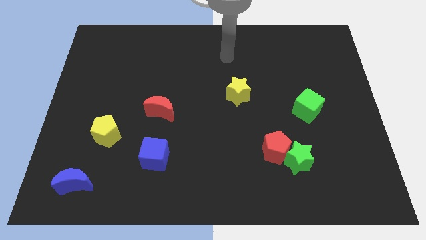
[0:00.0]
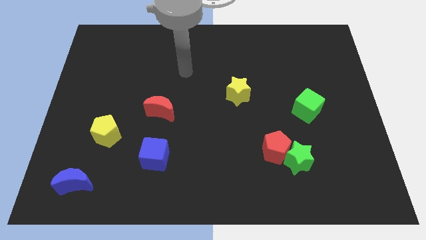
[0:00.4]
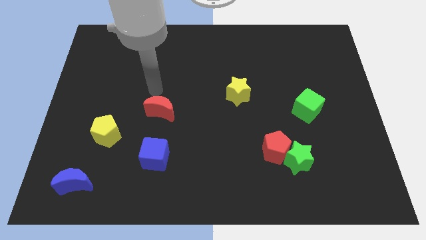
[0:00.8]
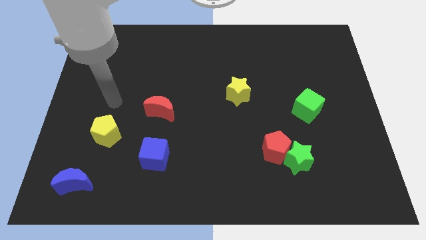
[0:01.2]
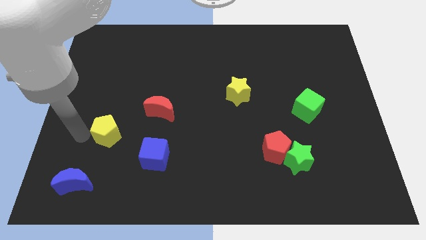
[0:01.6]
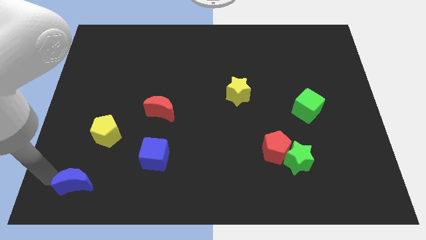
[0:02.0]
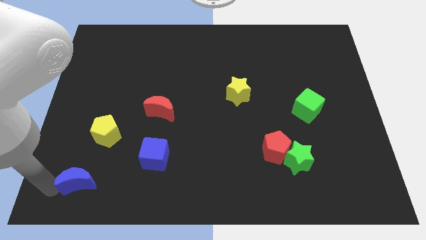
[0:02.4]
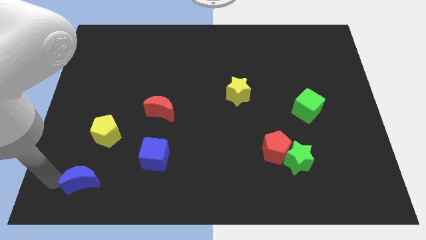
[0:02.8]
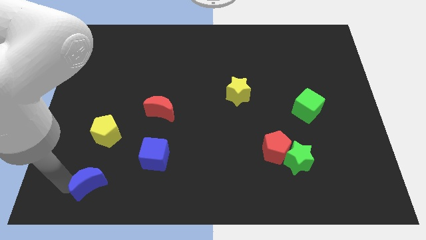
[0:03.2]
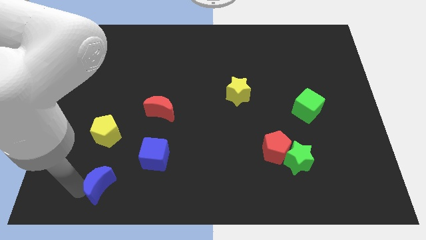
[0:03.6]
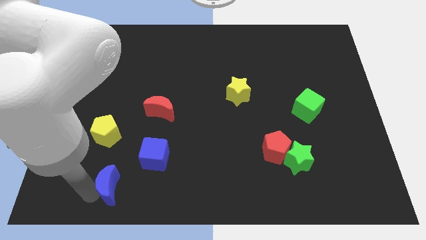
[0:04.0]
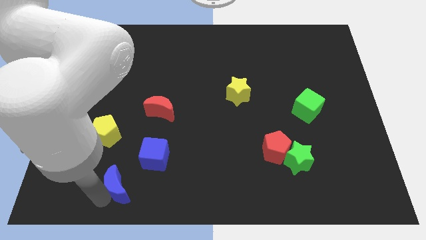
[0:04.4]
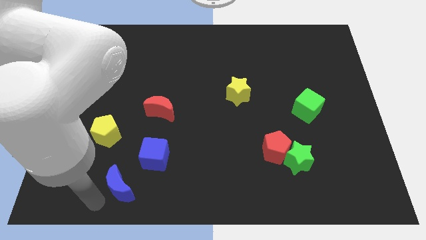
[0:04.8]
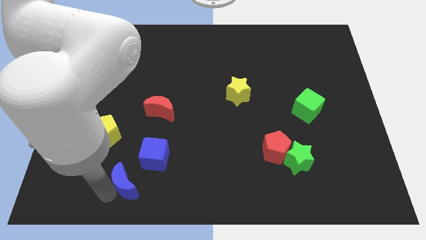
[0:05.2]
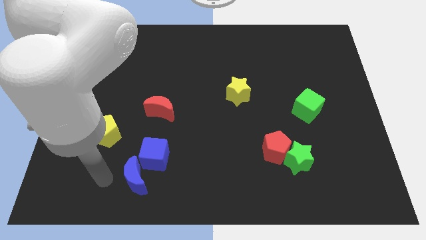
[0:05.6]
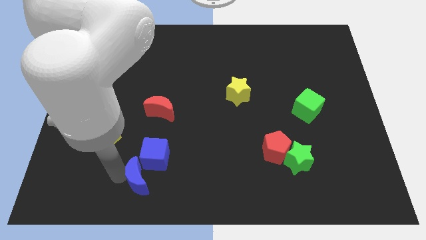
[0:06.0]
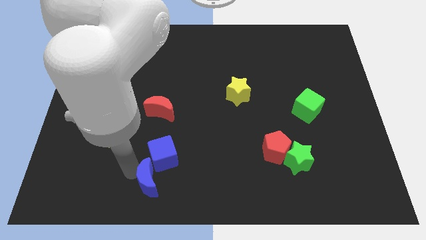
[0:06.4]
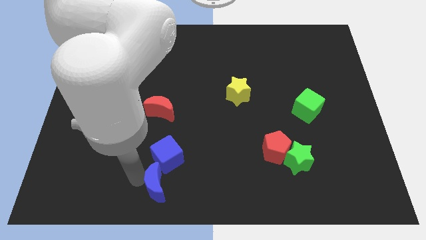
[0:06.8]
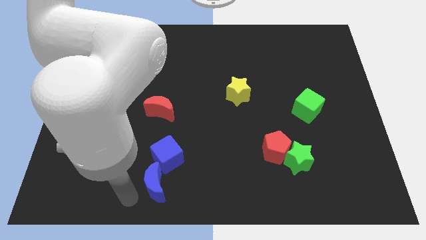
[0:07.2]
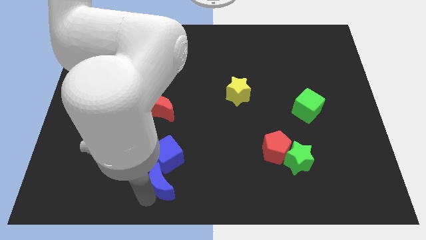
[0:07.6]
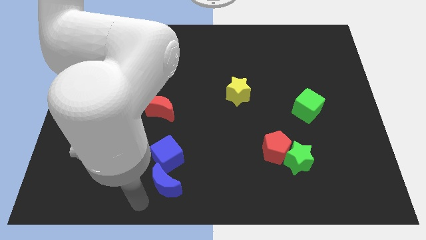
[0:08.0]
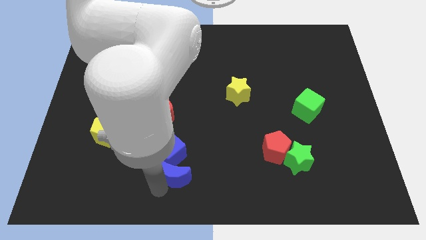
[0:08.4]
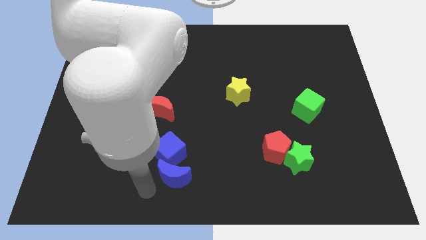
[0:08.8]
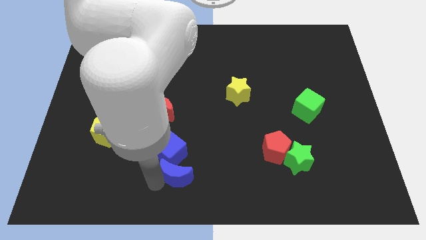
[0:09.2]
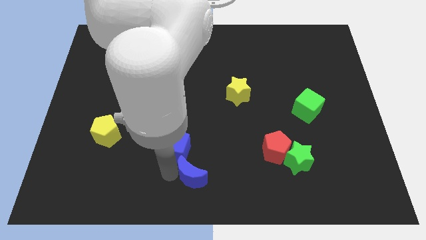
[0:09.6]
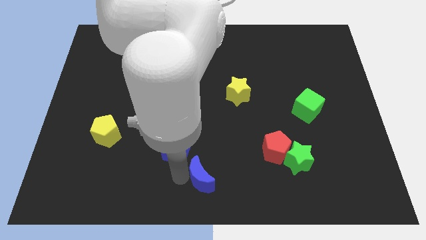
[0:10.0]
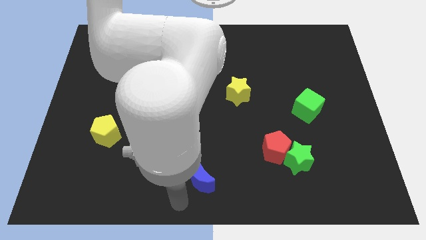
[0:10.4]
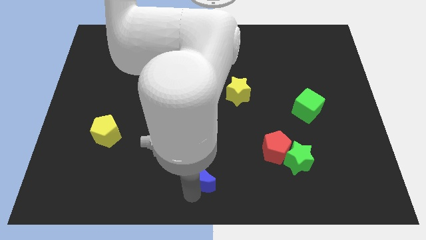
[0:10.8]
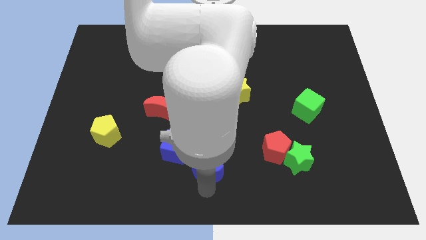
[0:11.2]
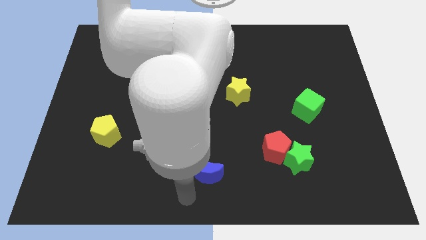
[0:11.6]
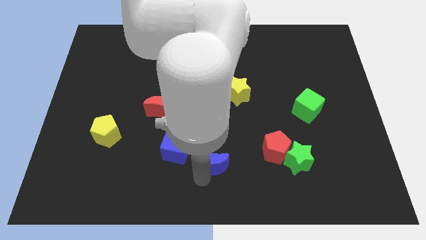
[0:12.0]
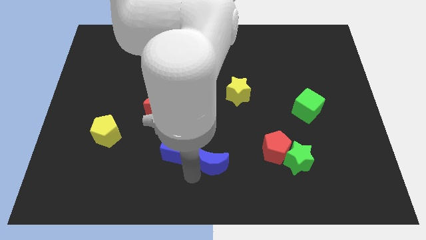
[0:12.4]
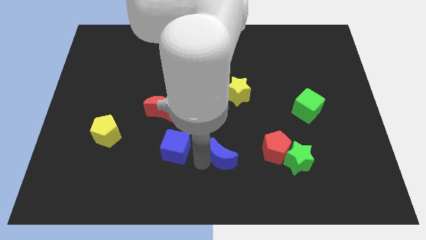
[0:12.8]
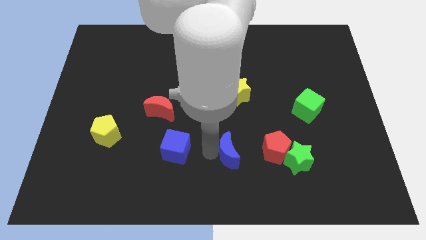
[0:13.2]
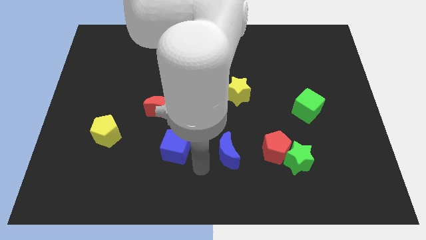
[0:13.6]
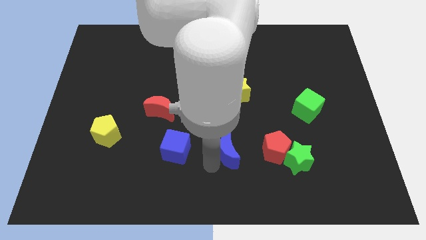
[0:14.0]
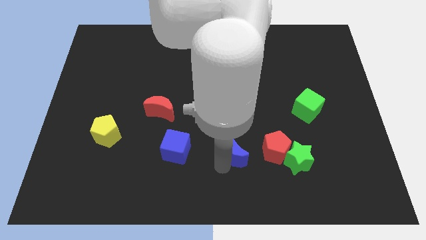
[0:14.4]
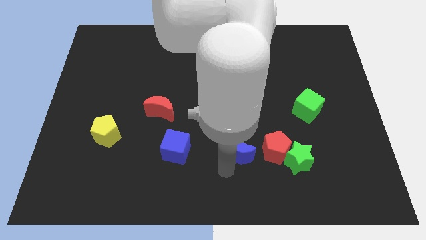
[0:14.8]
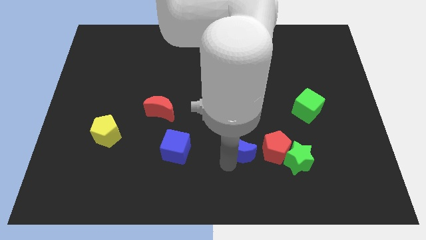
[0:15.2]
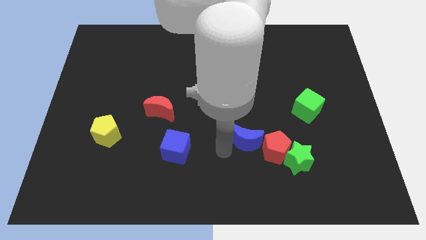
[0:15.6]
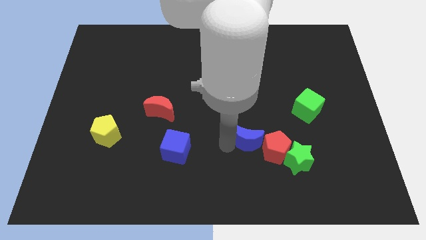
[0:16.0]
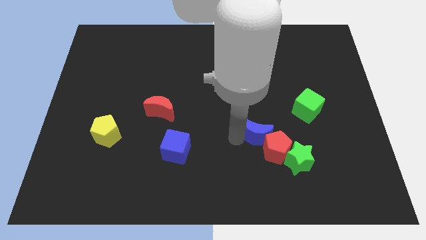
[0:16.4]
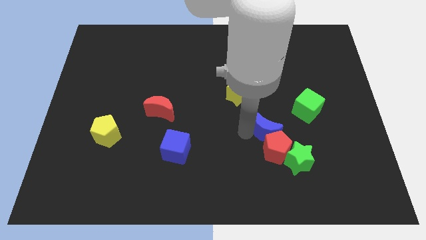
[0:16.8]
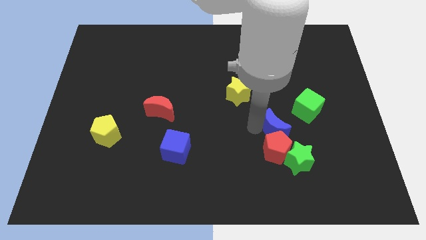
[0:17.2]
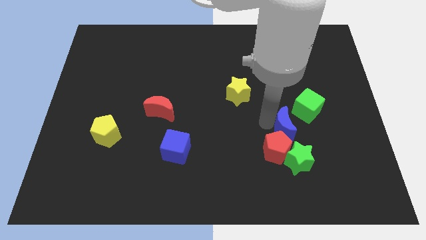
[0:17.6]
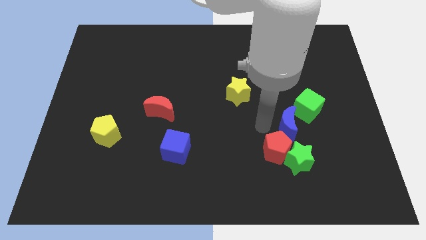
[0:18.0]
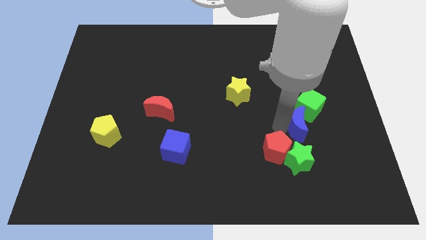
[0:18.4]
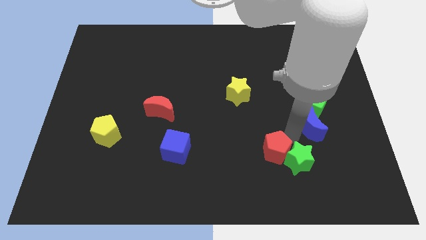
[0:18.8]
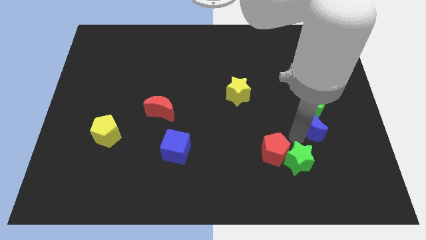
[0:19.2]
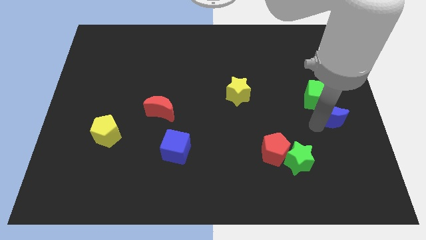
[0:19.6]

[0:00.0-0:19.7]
push the blue moon to the right side of the board

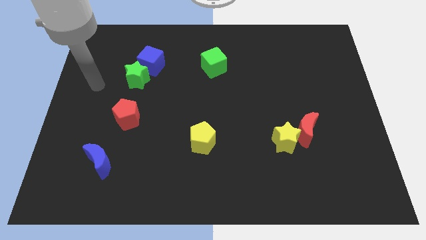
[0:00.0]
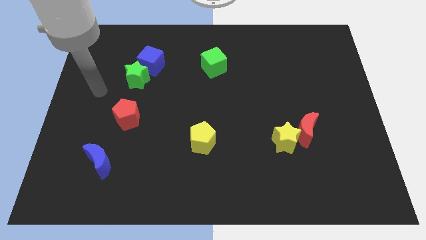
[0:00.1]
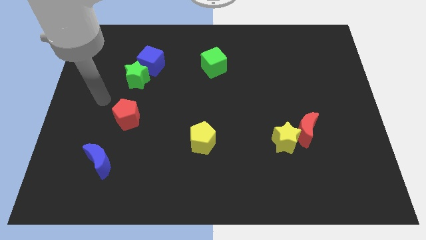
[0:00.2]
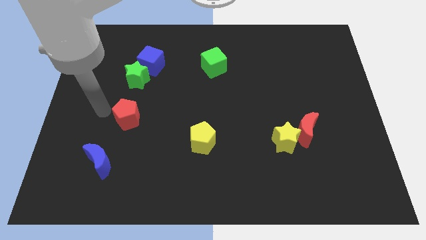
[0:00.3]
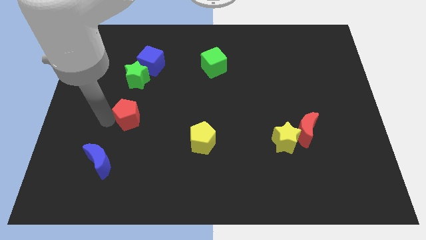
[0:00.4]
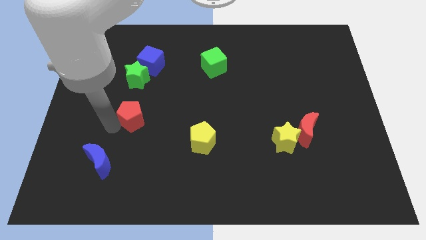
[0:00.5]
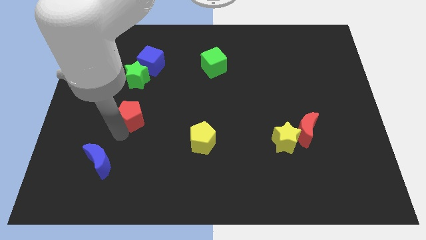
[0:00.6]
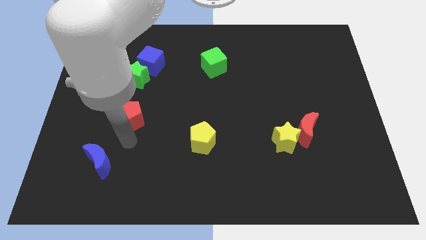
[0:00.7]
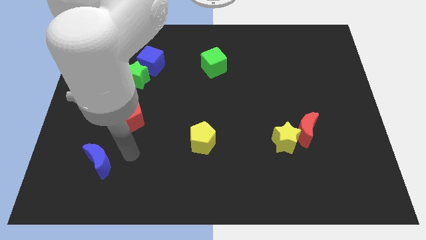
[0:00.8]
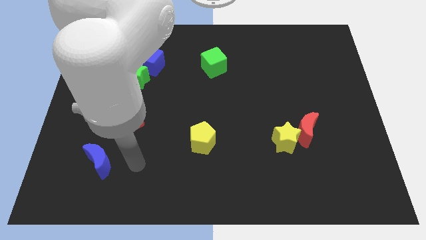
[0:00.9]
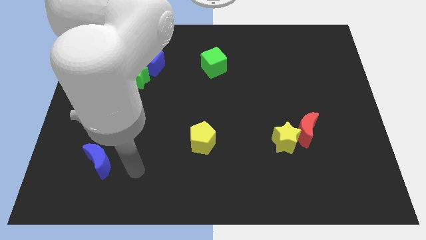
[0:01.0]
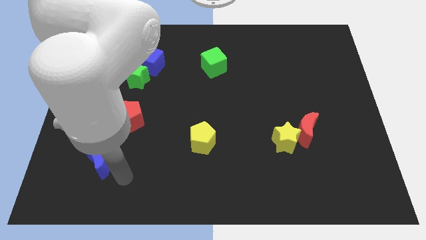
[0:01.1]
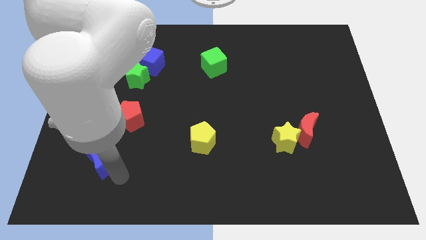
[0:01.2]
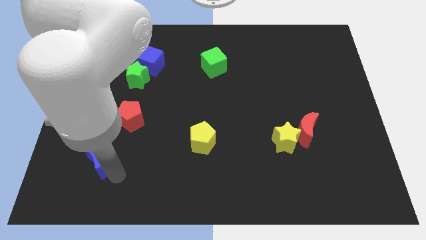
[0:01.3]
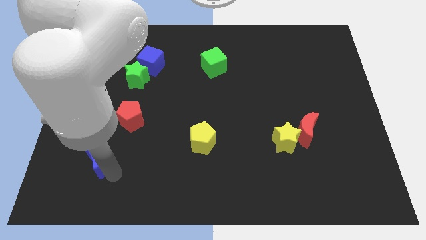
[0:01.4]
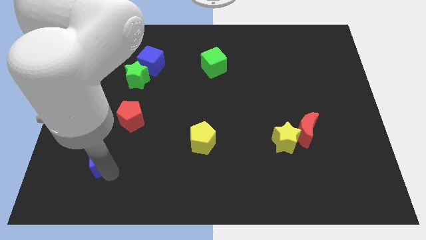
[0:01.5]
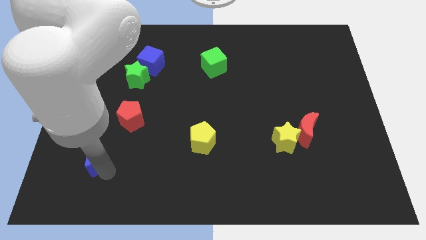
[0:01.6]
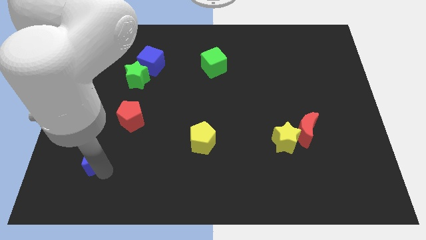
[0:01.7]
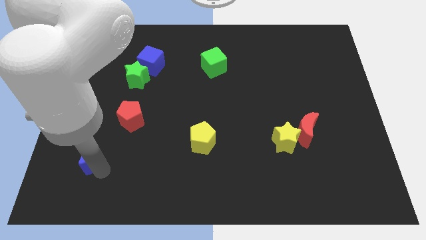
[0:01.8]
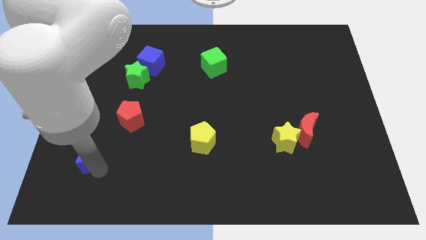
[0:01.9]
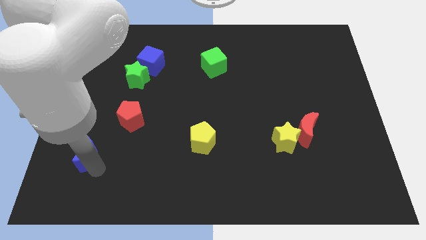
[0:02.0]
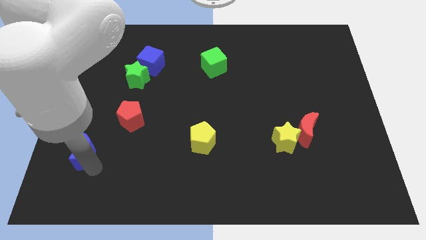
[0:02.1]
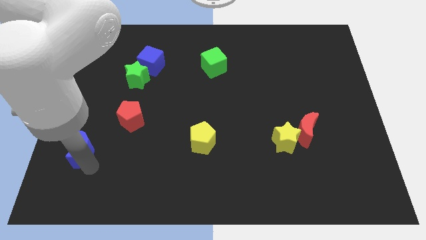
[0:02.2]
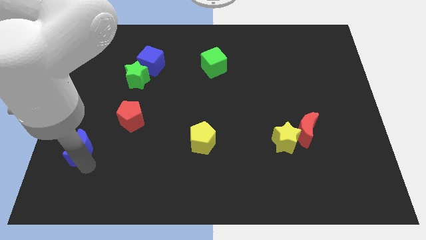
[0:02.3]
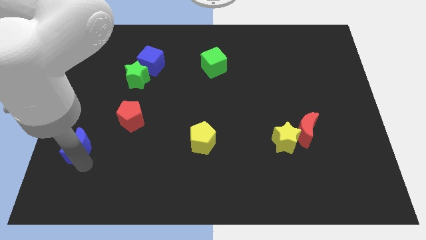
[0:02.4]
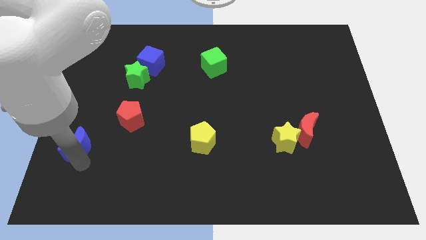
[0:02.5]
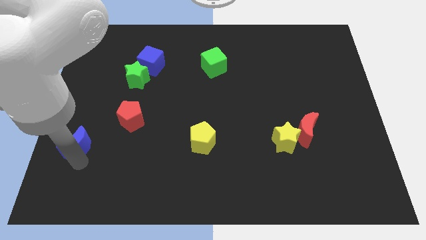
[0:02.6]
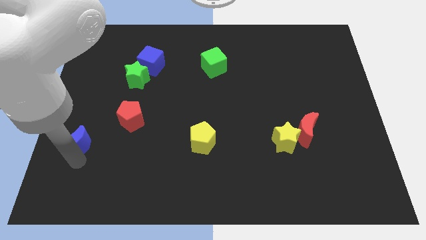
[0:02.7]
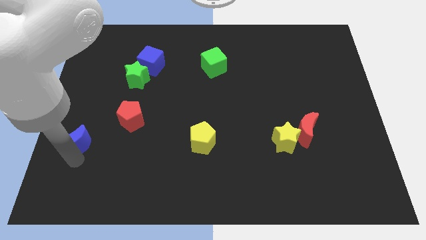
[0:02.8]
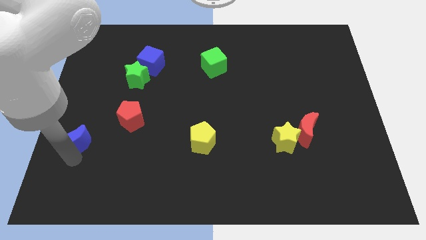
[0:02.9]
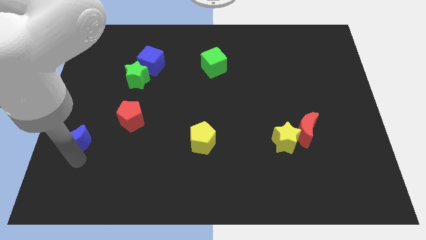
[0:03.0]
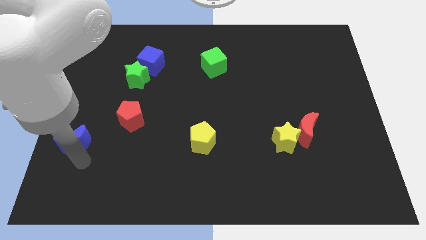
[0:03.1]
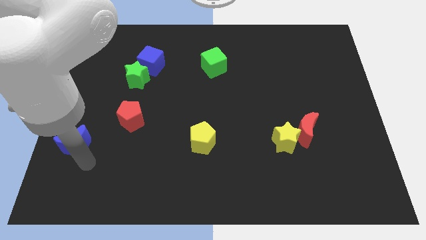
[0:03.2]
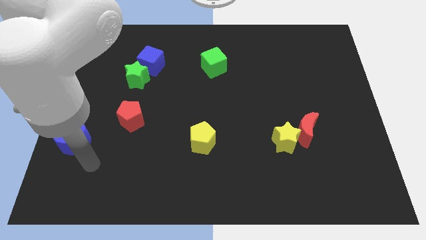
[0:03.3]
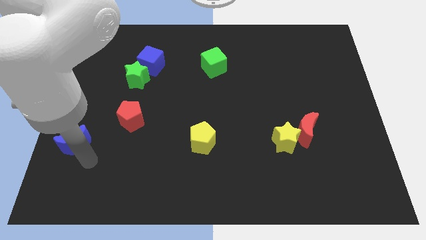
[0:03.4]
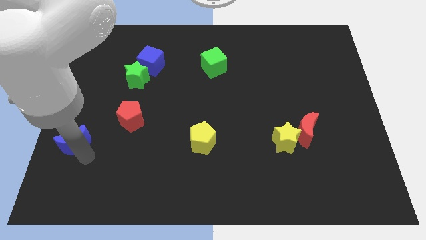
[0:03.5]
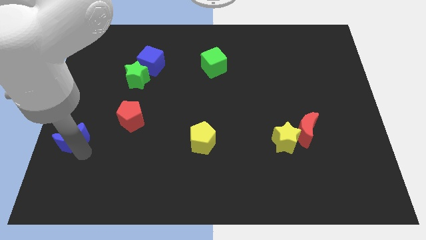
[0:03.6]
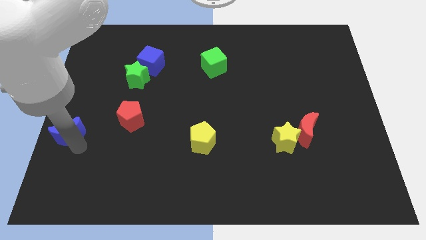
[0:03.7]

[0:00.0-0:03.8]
push the blue moon to the center left
